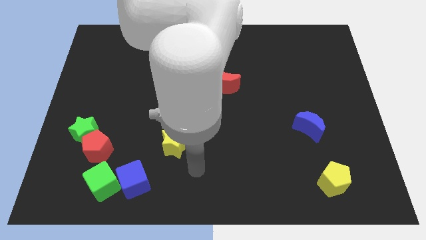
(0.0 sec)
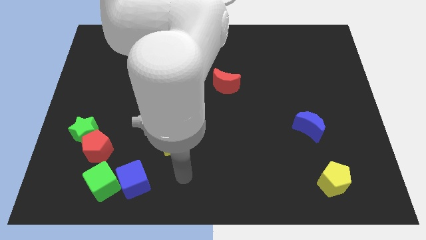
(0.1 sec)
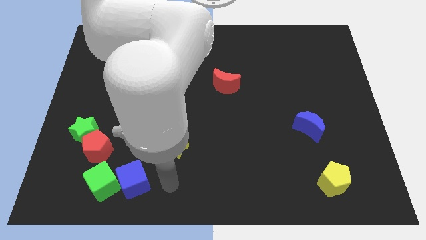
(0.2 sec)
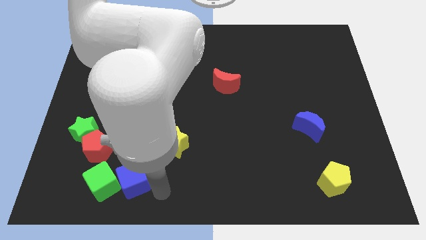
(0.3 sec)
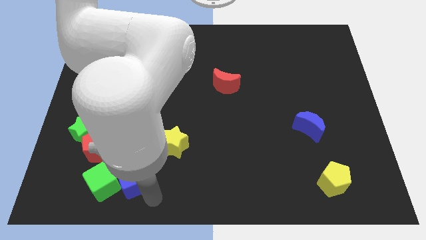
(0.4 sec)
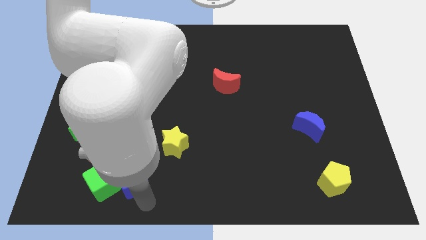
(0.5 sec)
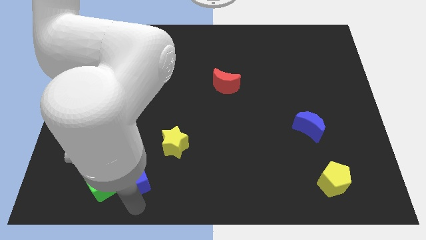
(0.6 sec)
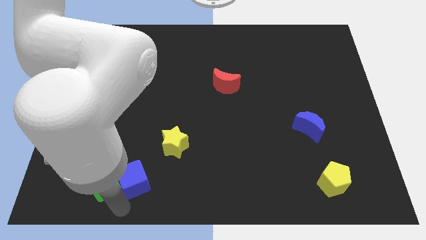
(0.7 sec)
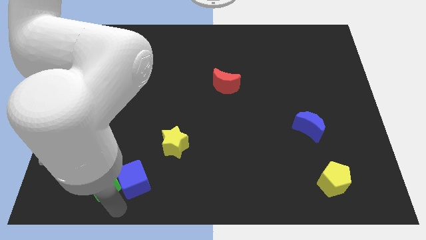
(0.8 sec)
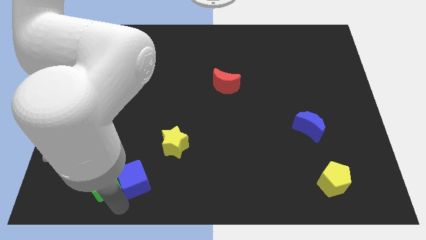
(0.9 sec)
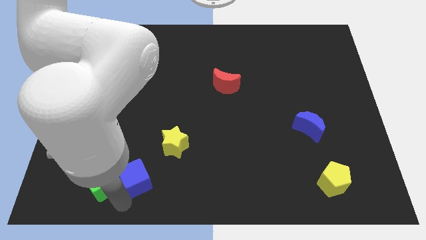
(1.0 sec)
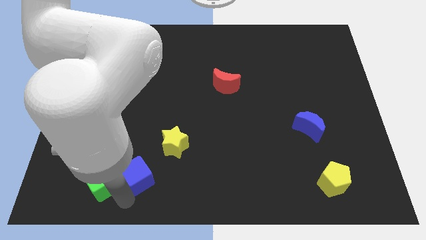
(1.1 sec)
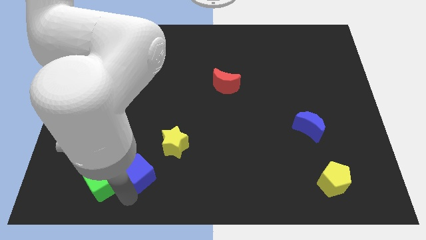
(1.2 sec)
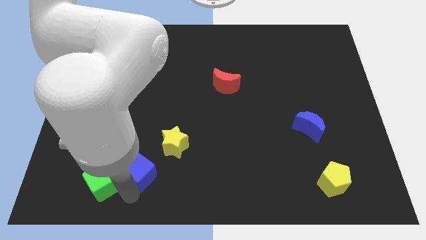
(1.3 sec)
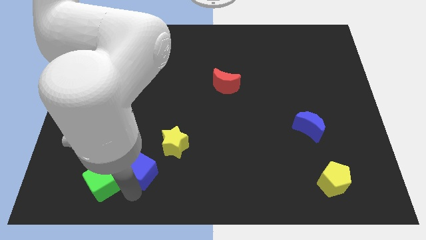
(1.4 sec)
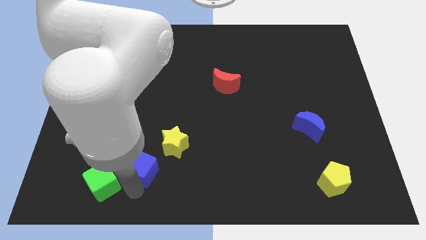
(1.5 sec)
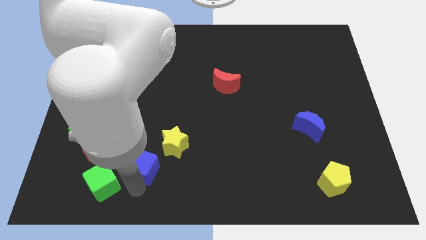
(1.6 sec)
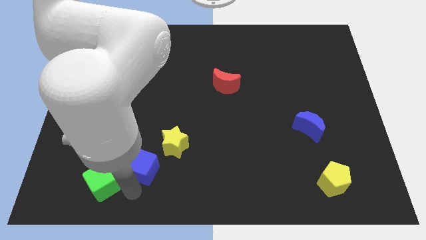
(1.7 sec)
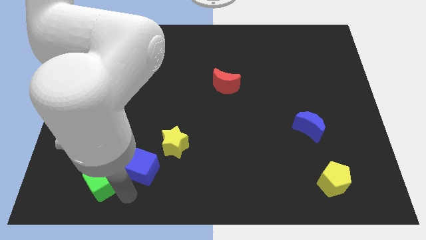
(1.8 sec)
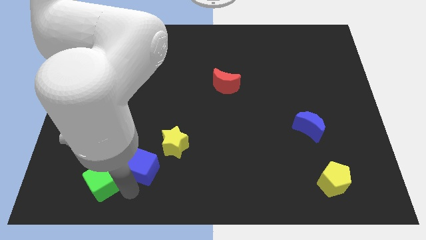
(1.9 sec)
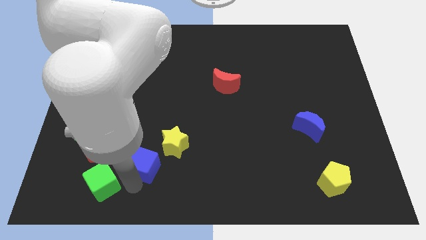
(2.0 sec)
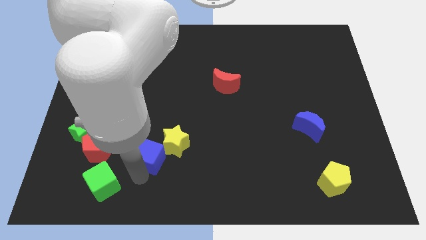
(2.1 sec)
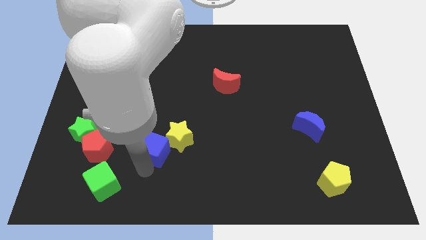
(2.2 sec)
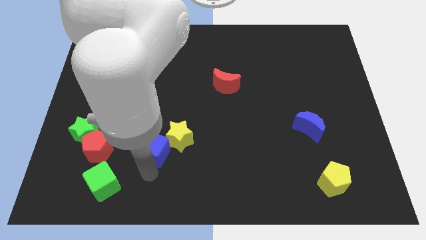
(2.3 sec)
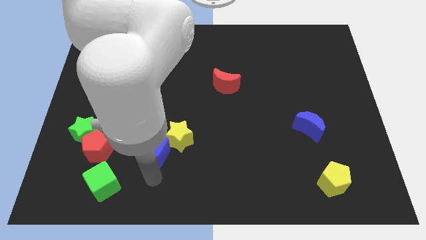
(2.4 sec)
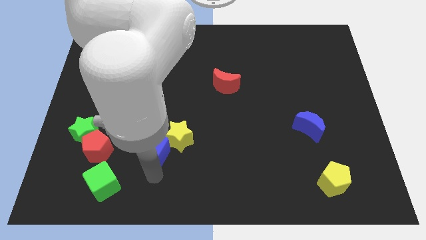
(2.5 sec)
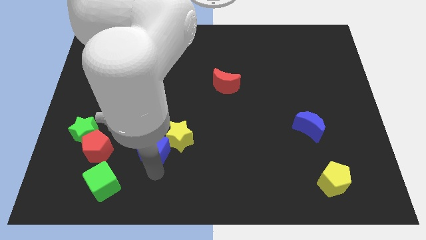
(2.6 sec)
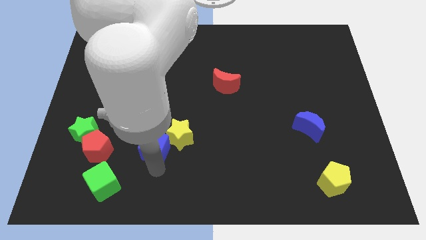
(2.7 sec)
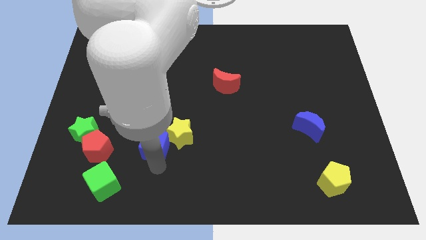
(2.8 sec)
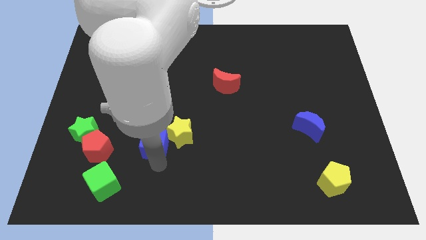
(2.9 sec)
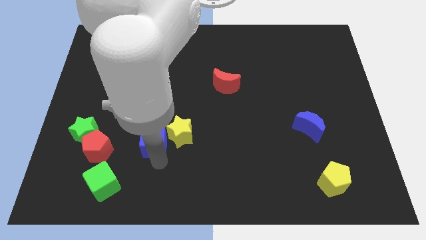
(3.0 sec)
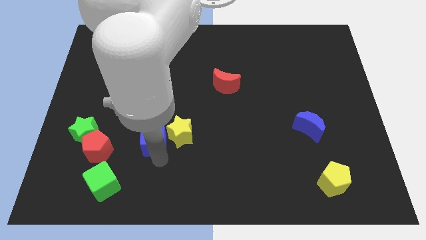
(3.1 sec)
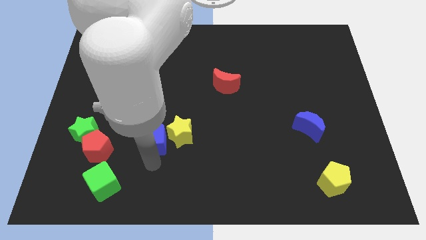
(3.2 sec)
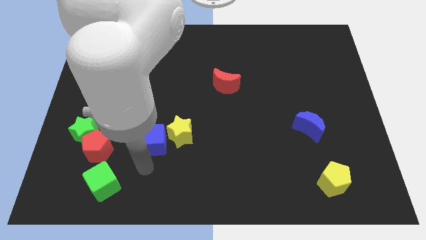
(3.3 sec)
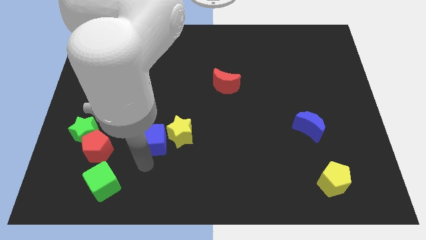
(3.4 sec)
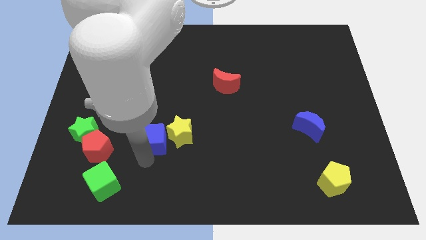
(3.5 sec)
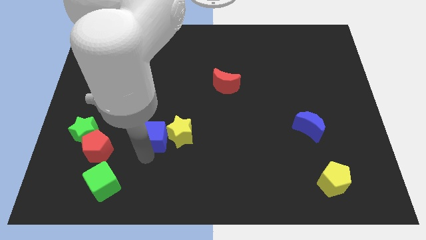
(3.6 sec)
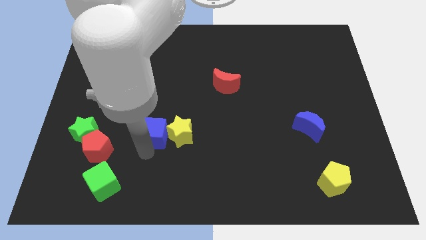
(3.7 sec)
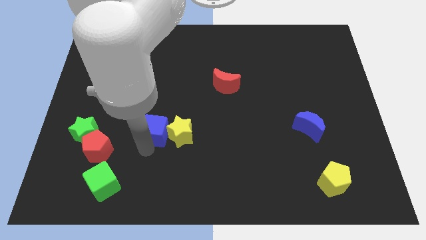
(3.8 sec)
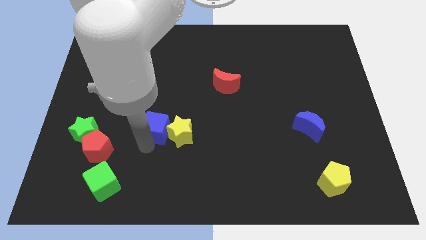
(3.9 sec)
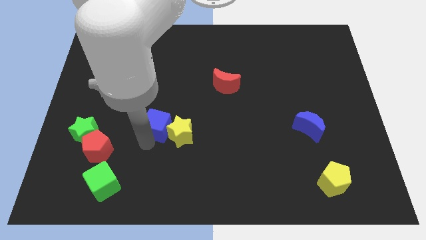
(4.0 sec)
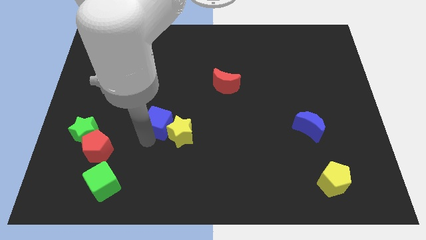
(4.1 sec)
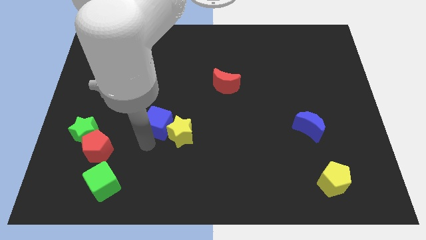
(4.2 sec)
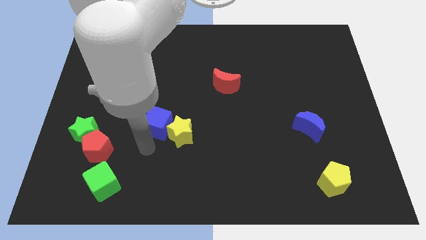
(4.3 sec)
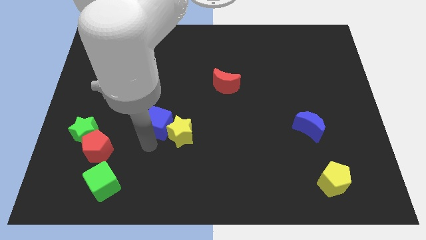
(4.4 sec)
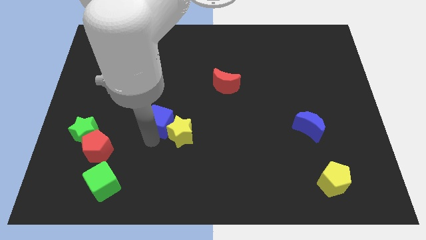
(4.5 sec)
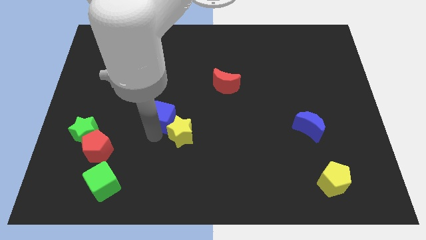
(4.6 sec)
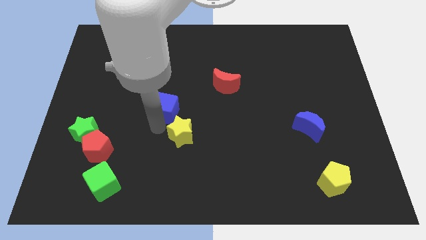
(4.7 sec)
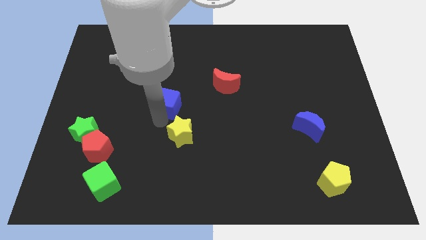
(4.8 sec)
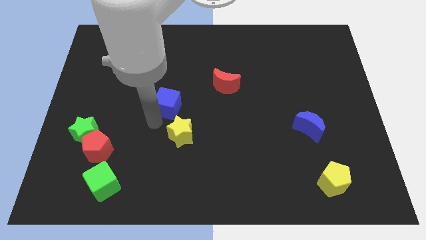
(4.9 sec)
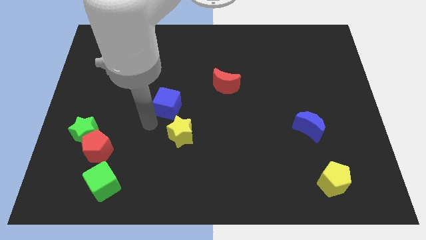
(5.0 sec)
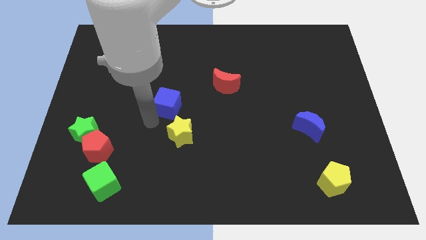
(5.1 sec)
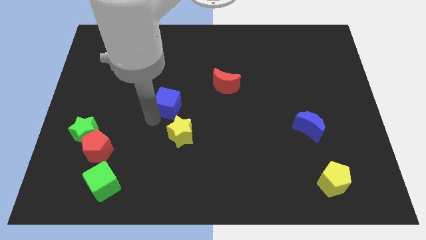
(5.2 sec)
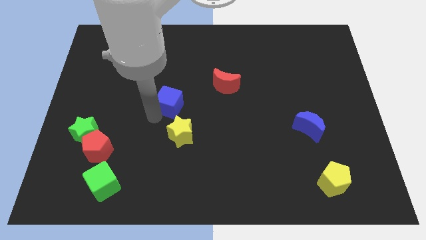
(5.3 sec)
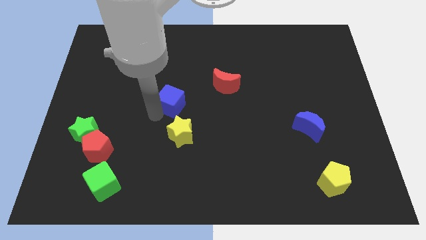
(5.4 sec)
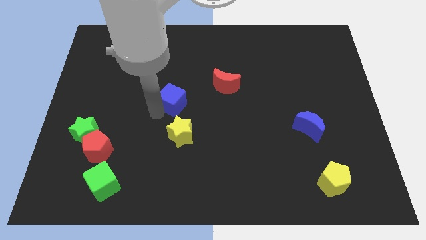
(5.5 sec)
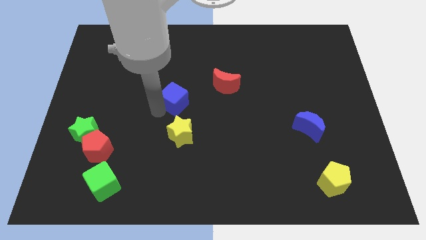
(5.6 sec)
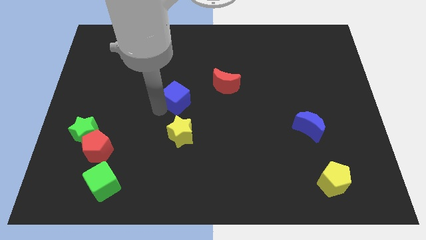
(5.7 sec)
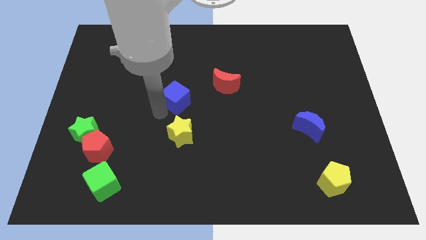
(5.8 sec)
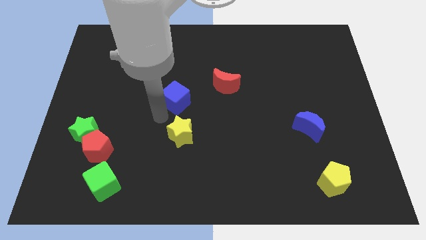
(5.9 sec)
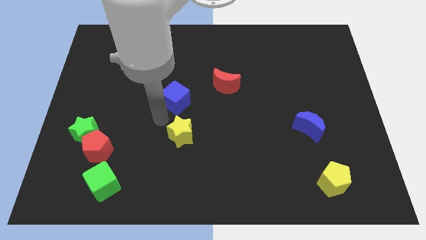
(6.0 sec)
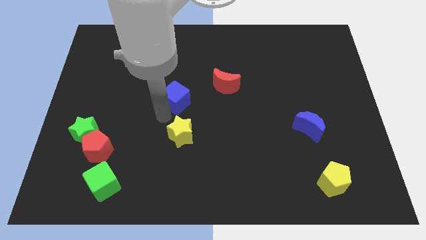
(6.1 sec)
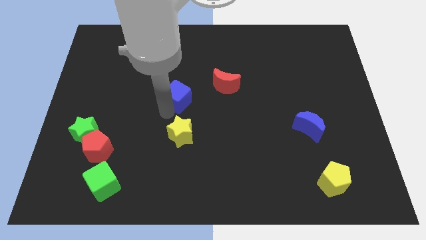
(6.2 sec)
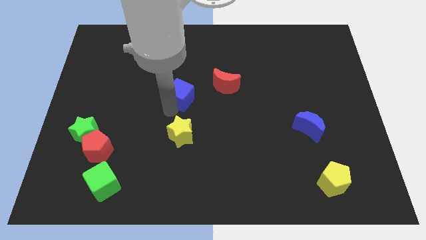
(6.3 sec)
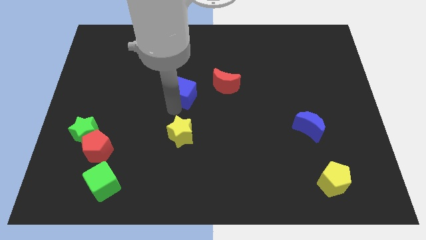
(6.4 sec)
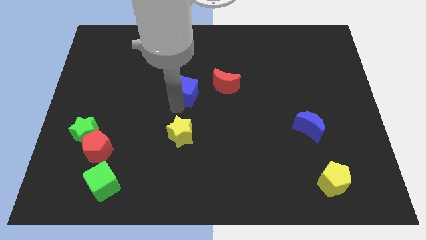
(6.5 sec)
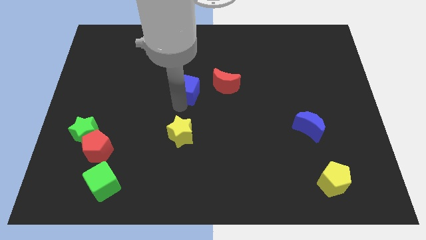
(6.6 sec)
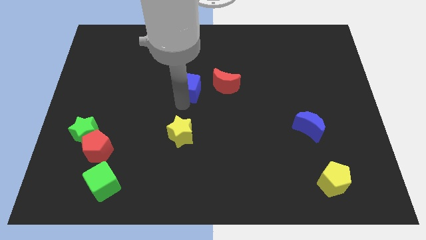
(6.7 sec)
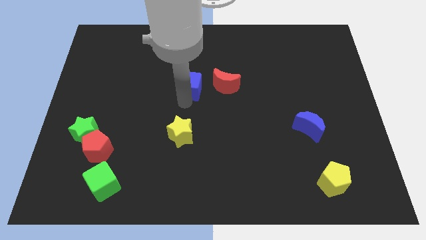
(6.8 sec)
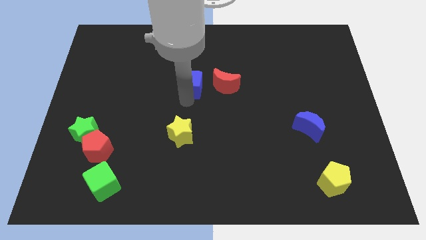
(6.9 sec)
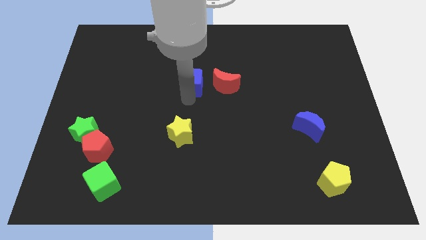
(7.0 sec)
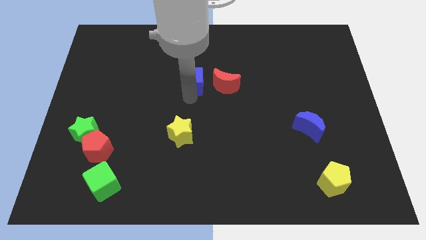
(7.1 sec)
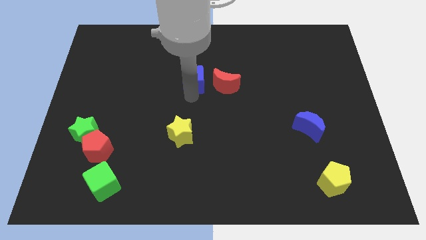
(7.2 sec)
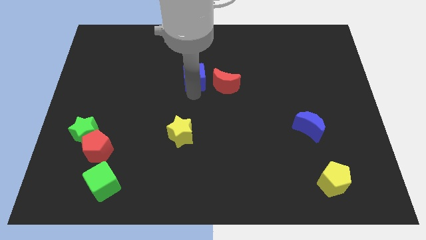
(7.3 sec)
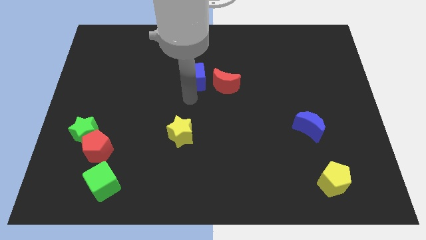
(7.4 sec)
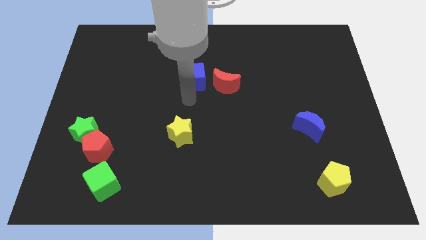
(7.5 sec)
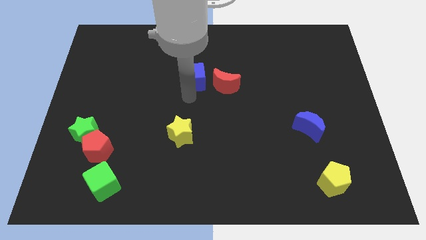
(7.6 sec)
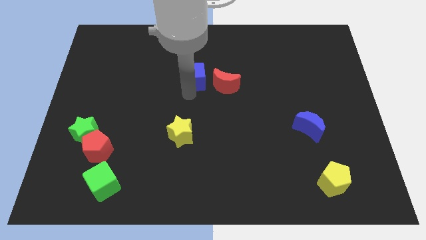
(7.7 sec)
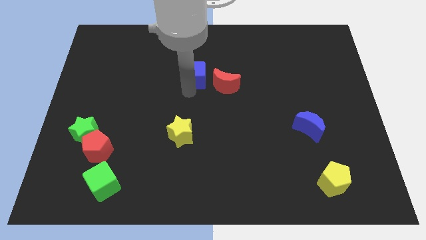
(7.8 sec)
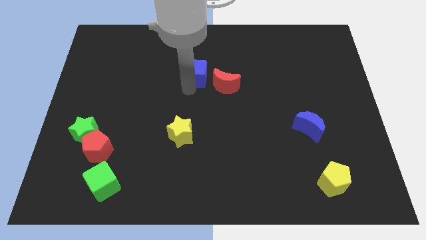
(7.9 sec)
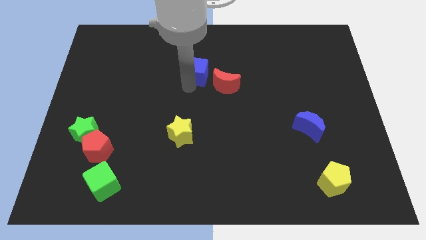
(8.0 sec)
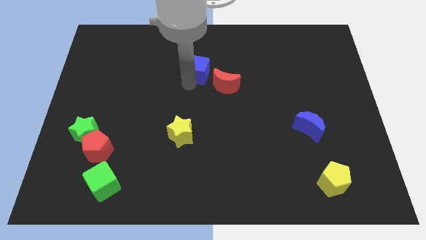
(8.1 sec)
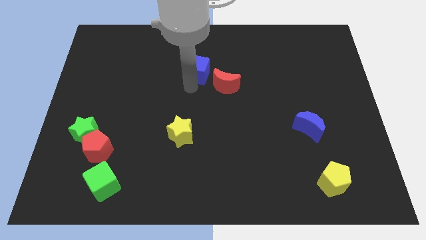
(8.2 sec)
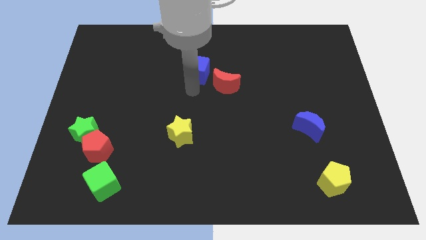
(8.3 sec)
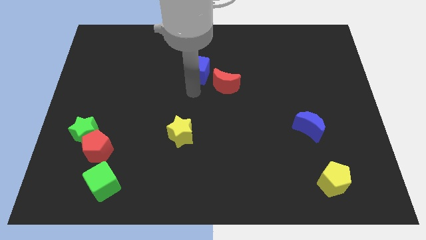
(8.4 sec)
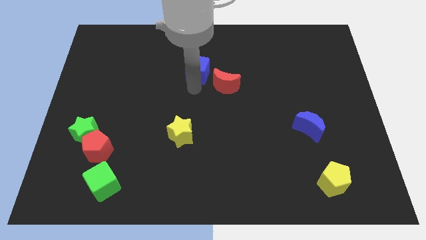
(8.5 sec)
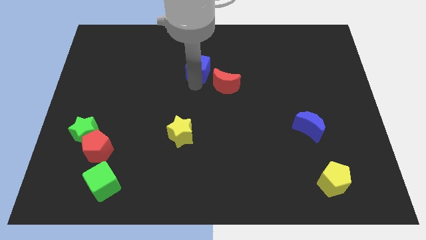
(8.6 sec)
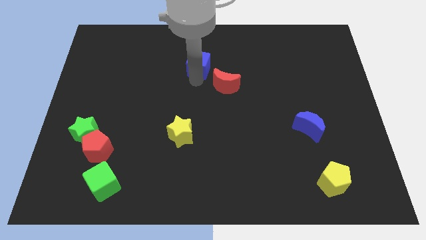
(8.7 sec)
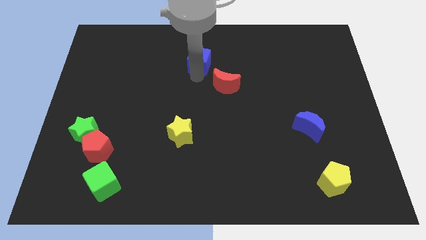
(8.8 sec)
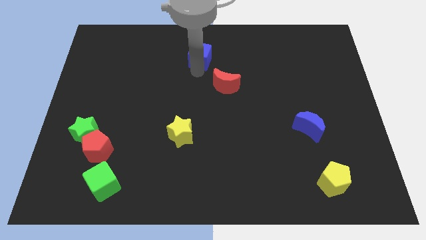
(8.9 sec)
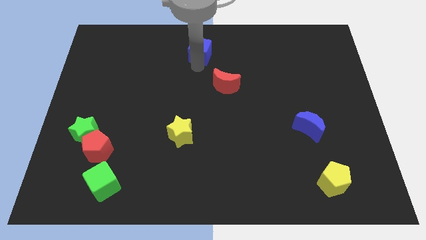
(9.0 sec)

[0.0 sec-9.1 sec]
push the blue cube to the top side
